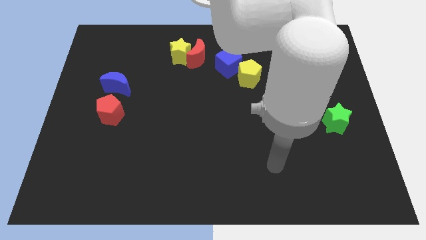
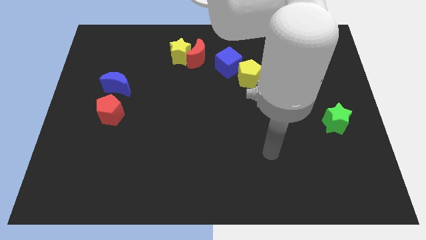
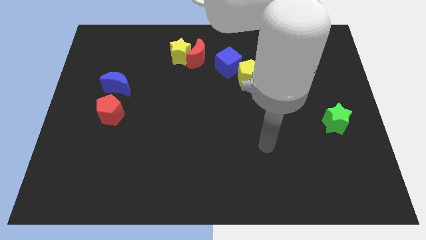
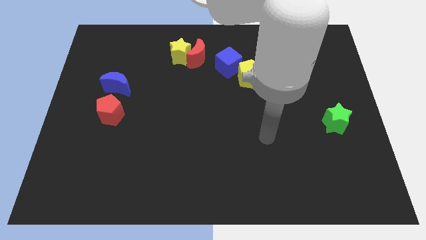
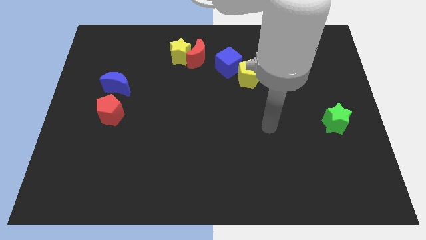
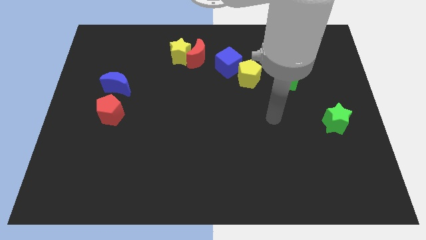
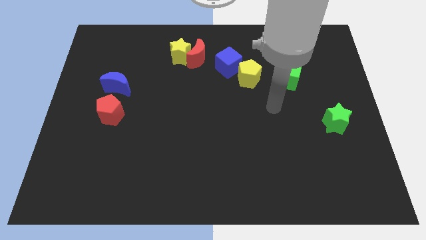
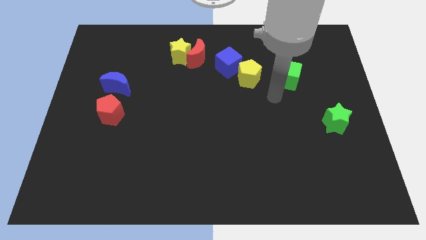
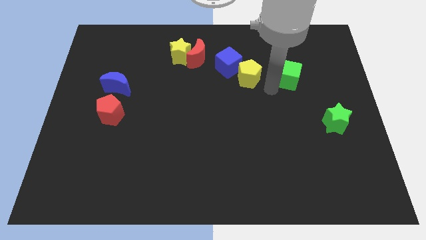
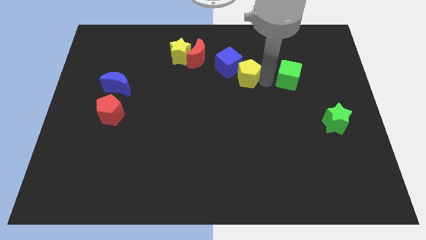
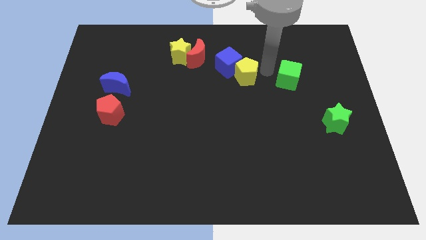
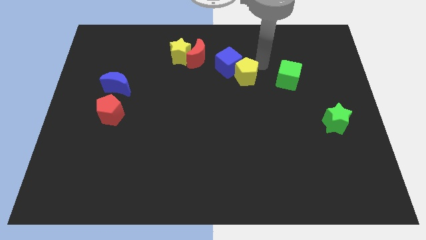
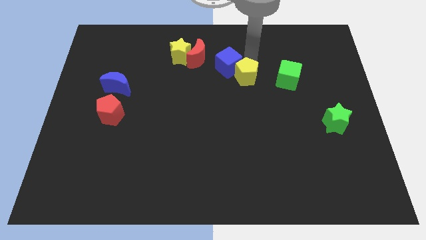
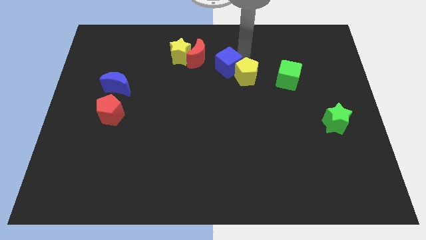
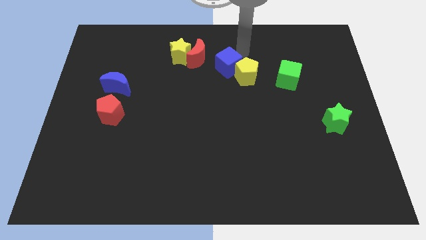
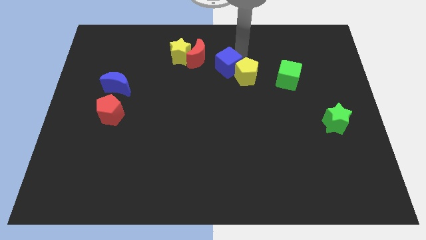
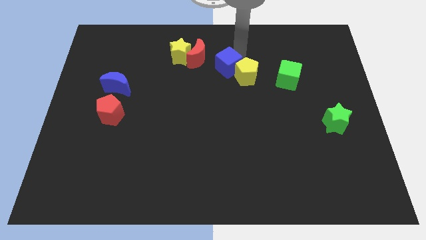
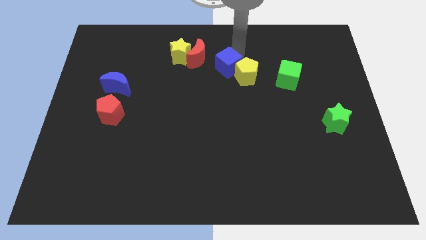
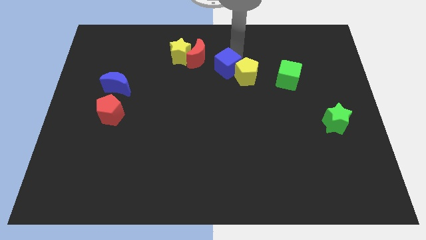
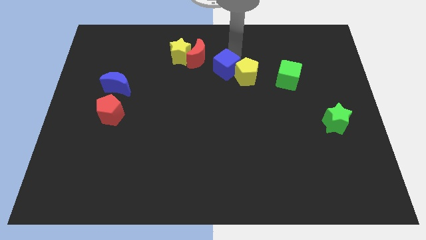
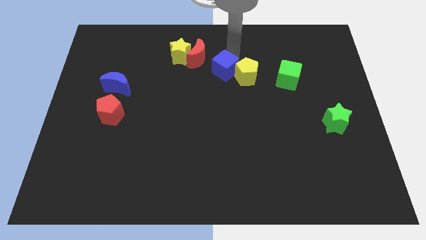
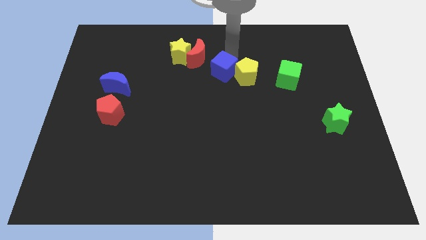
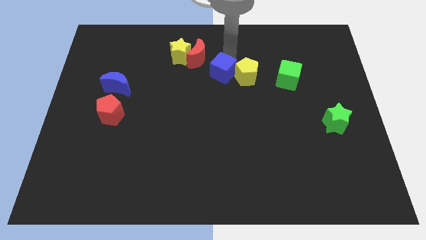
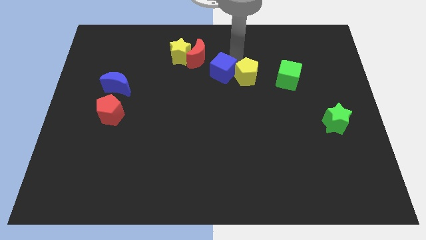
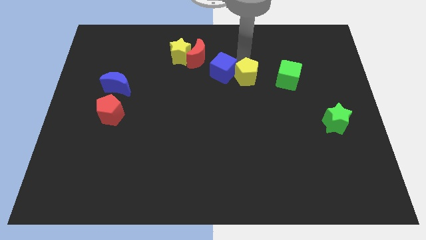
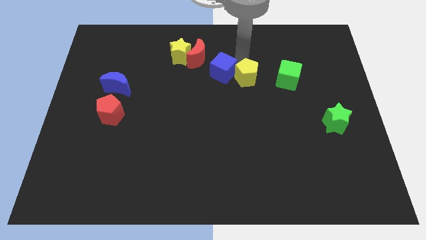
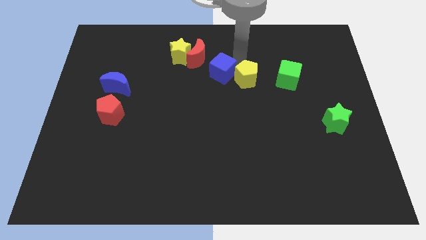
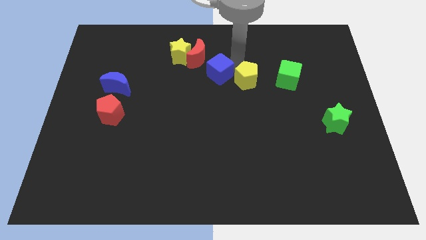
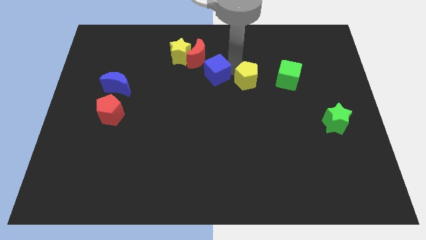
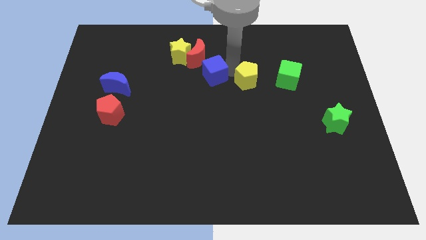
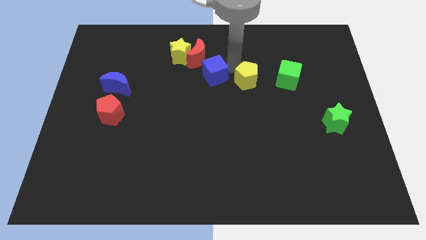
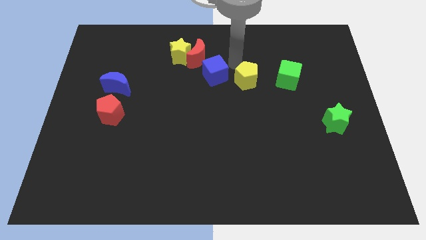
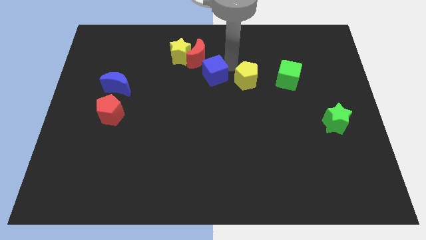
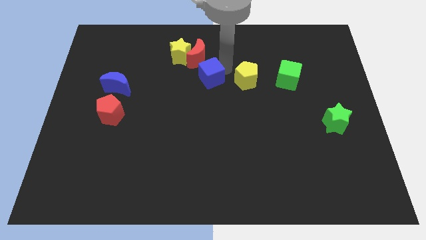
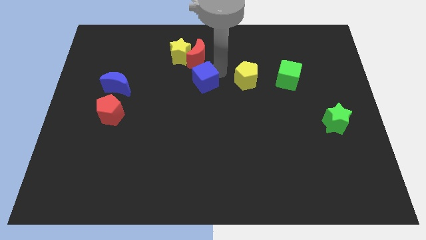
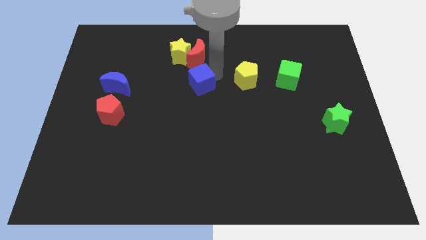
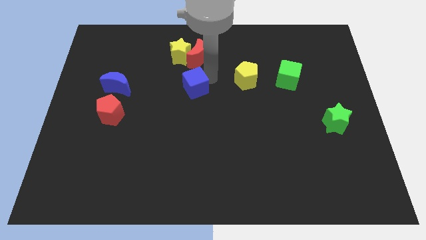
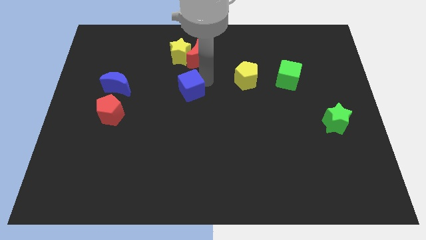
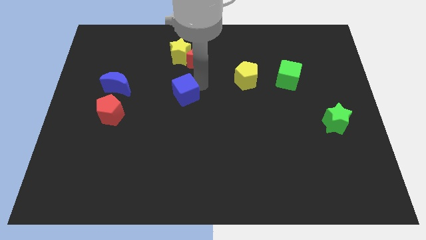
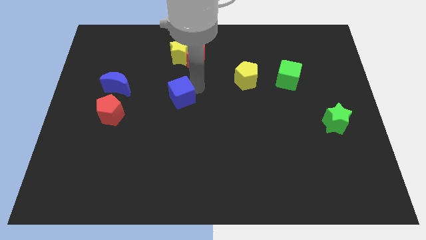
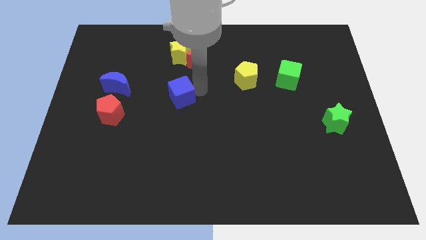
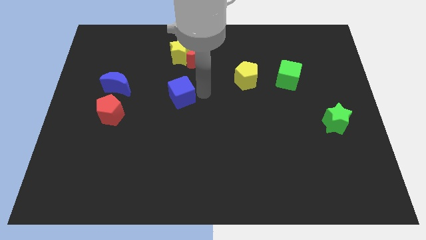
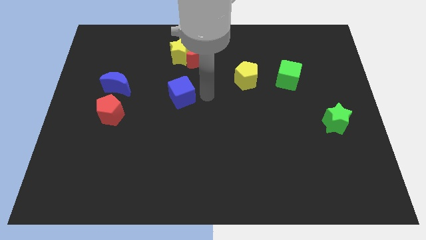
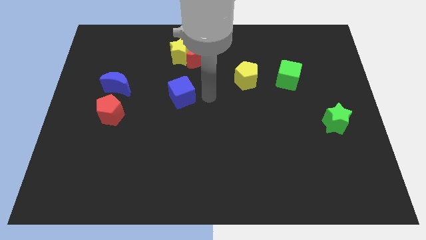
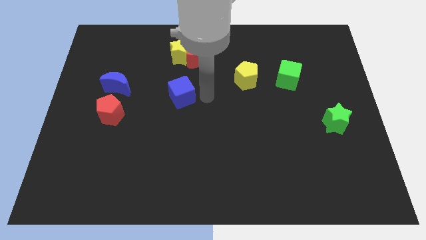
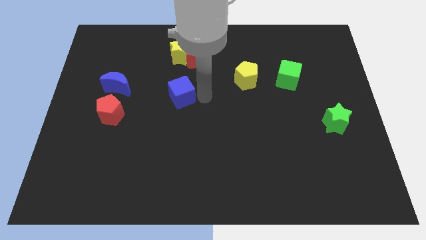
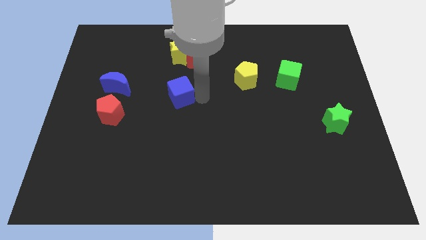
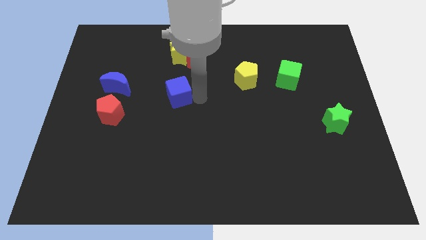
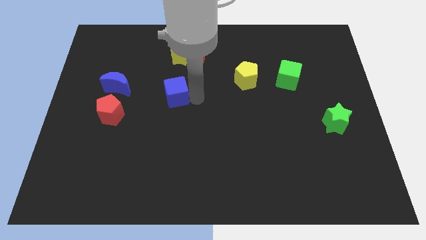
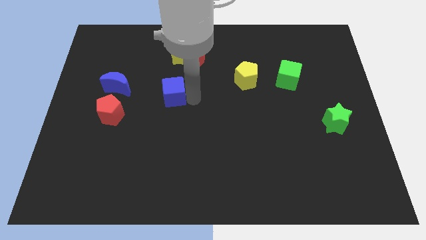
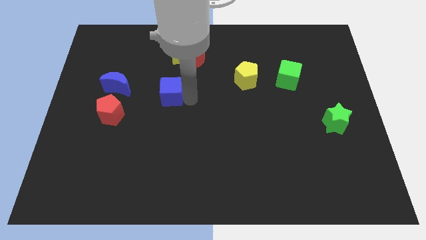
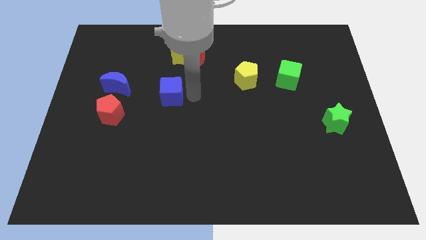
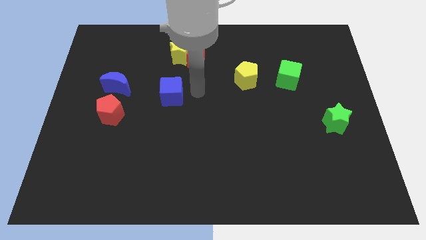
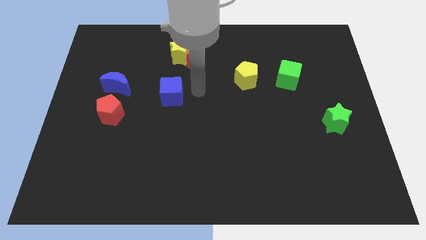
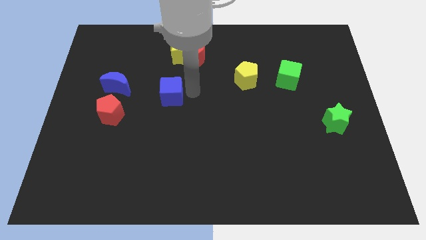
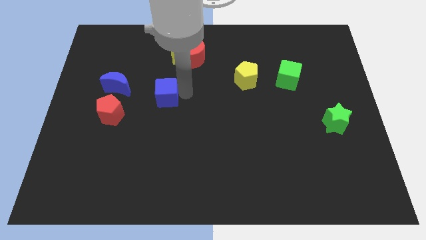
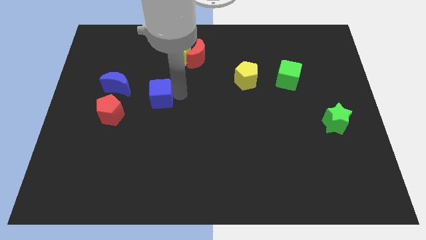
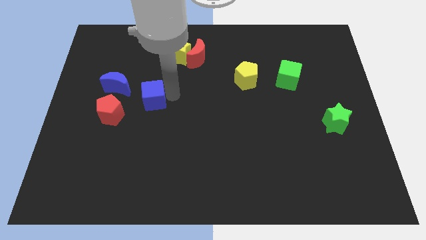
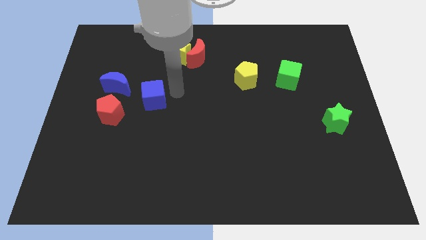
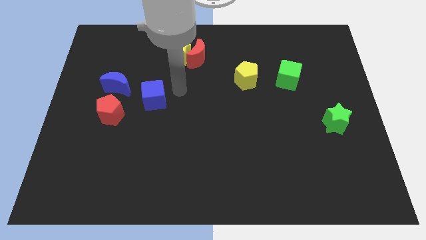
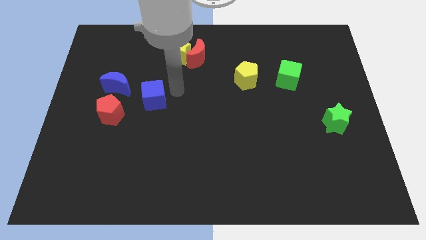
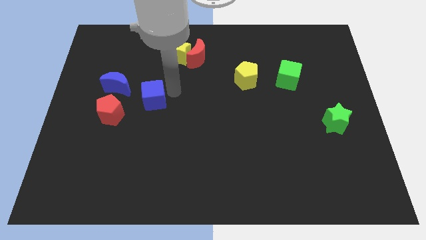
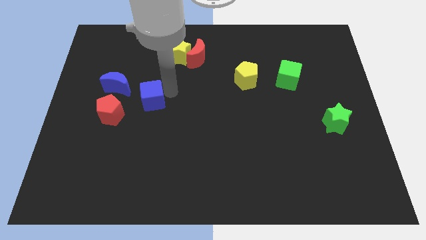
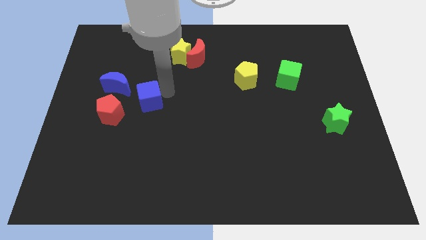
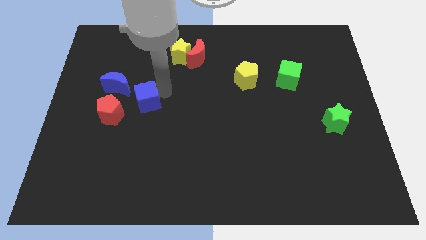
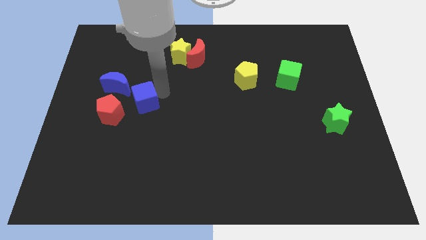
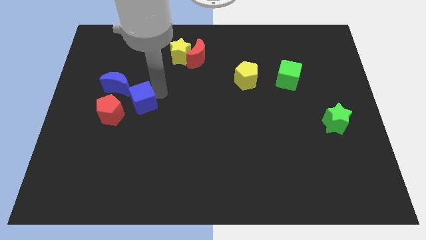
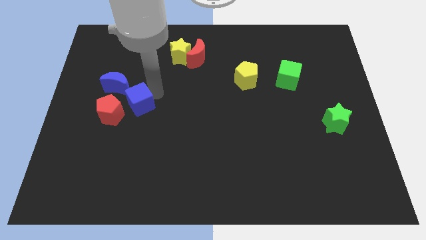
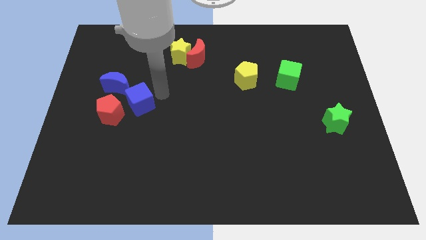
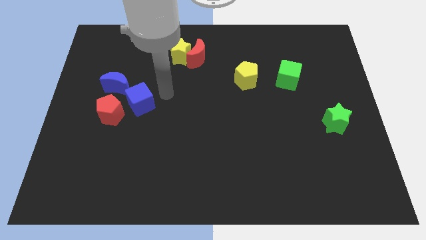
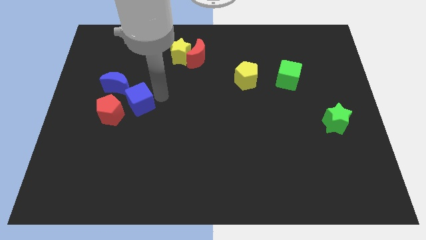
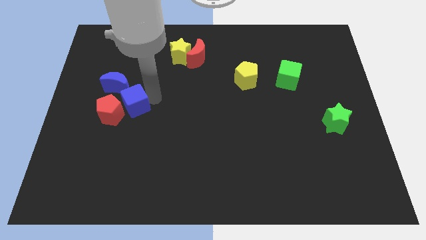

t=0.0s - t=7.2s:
push the blue cube towards the red pentagon
